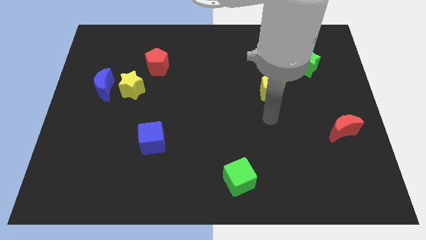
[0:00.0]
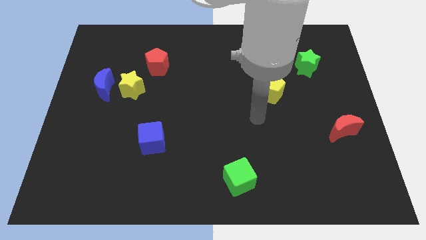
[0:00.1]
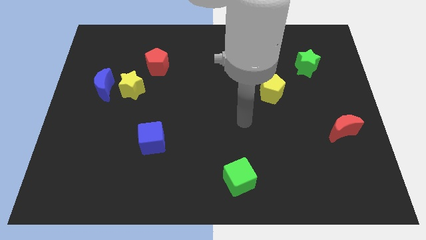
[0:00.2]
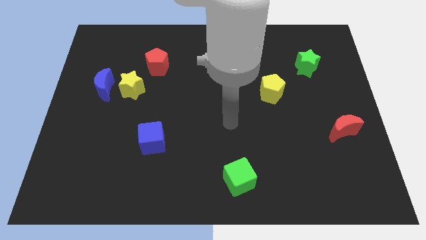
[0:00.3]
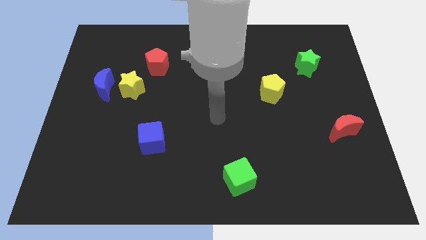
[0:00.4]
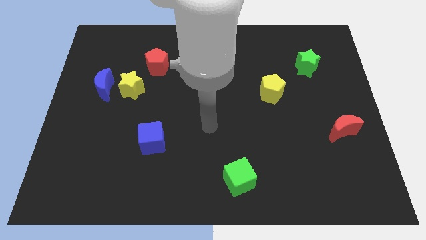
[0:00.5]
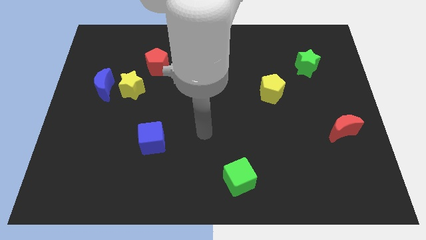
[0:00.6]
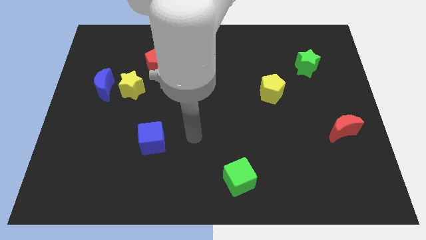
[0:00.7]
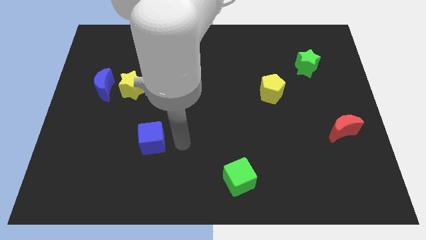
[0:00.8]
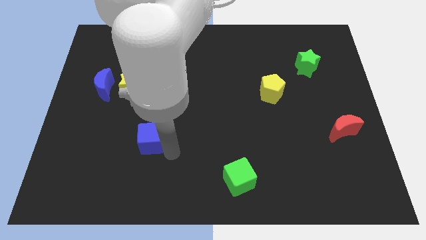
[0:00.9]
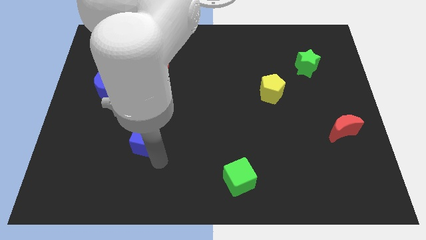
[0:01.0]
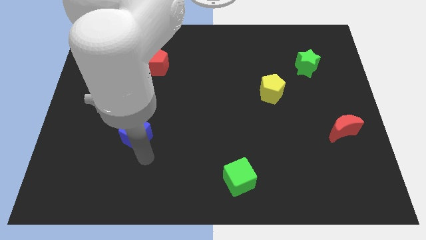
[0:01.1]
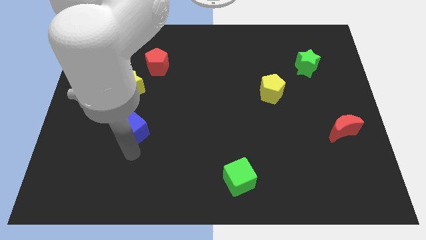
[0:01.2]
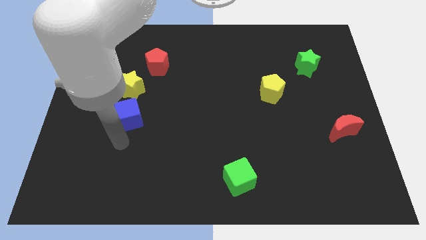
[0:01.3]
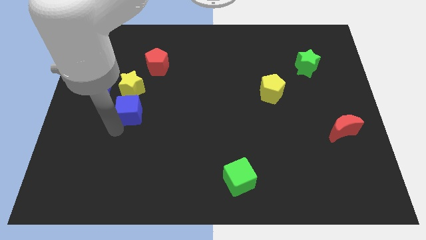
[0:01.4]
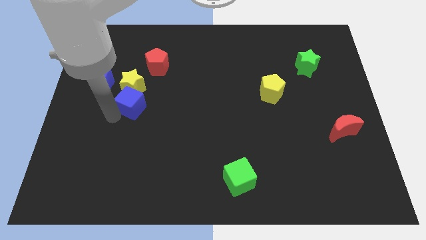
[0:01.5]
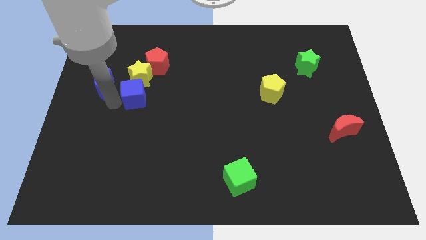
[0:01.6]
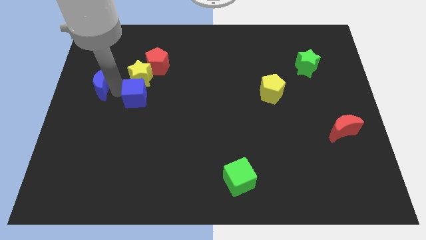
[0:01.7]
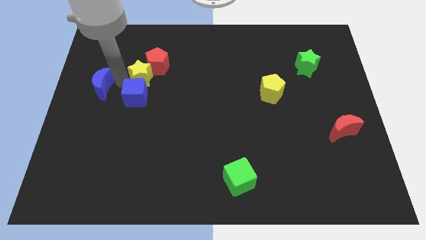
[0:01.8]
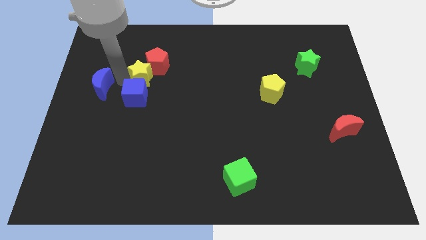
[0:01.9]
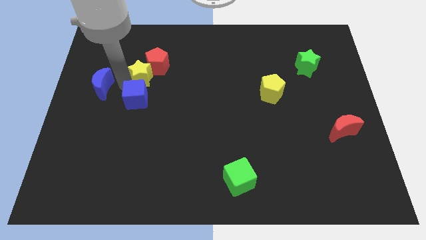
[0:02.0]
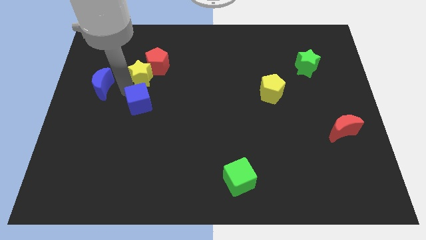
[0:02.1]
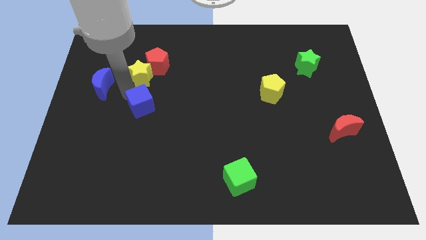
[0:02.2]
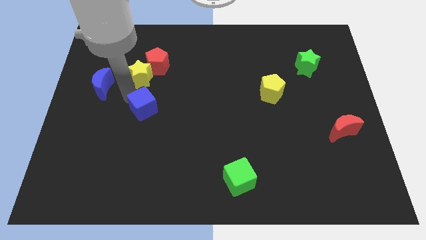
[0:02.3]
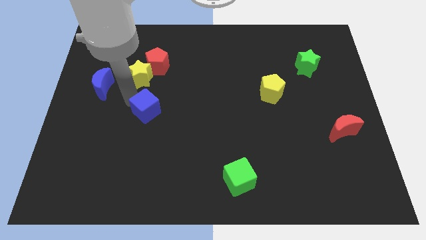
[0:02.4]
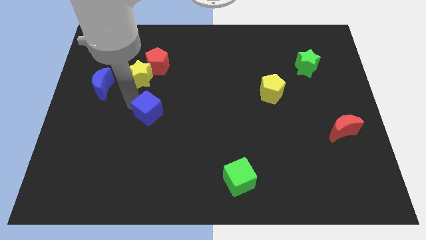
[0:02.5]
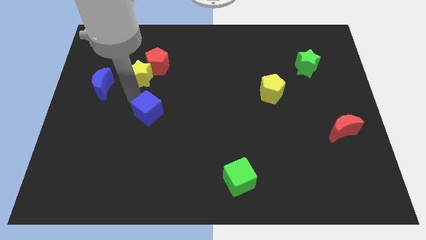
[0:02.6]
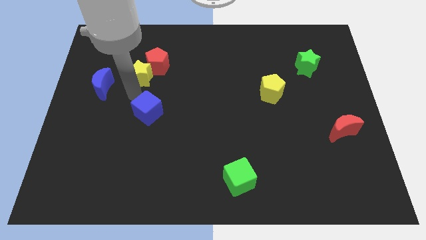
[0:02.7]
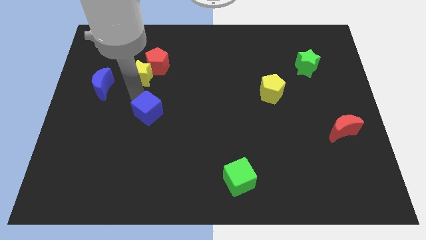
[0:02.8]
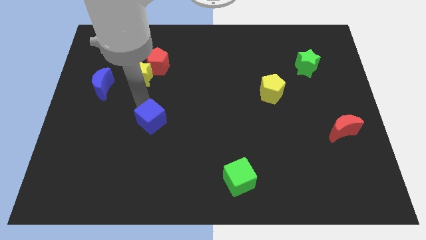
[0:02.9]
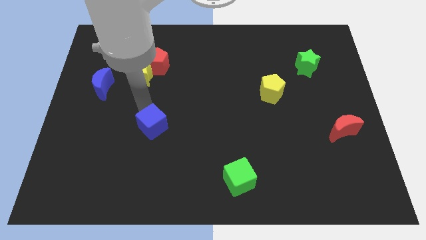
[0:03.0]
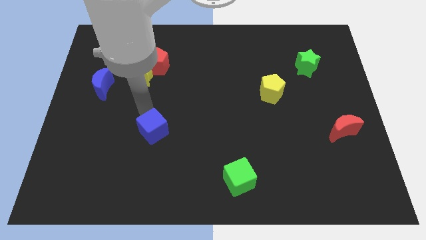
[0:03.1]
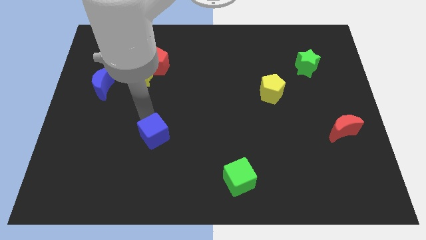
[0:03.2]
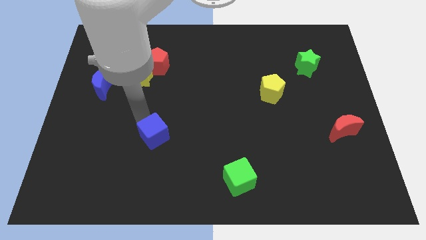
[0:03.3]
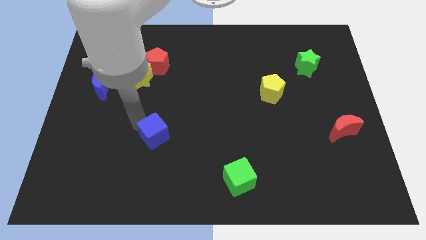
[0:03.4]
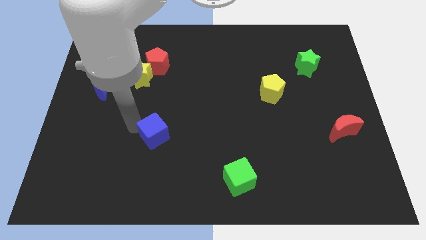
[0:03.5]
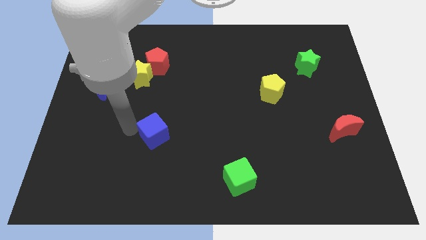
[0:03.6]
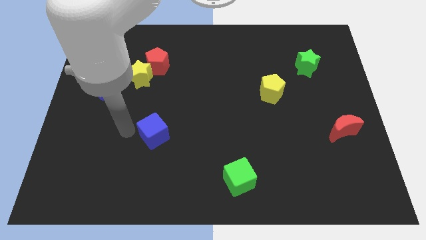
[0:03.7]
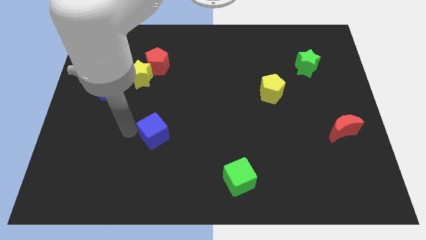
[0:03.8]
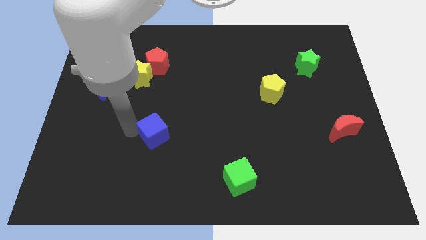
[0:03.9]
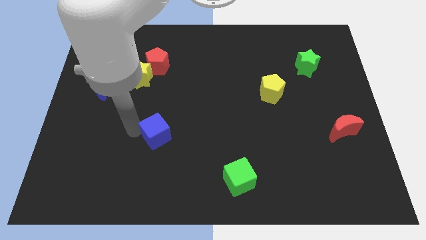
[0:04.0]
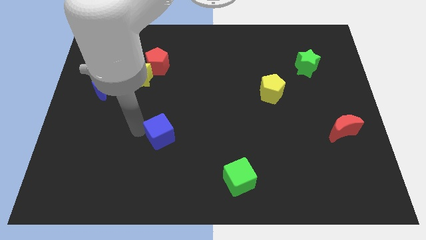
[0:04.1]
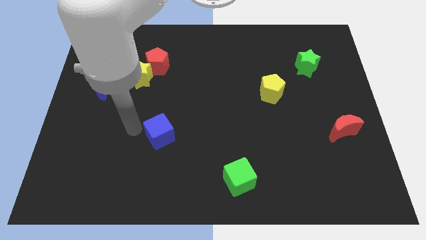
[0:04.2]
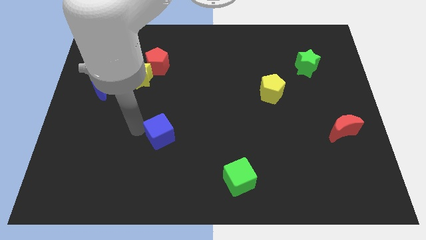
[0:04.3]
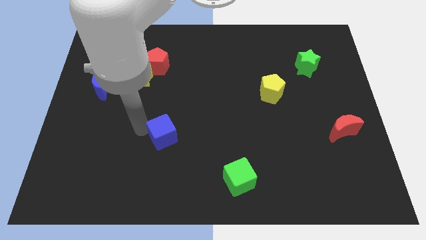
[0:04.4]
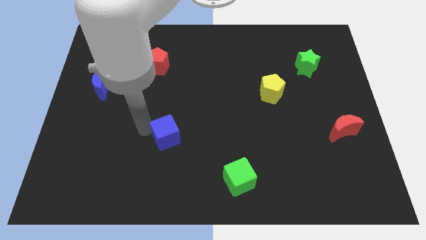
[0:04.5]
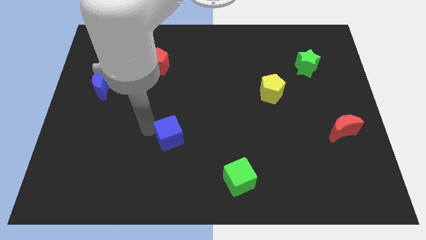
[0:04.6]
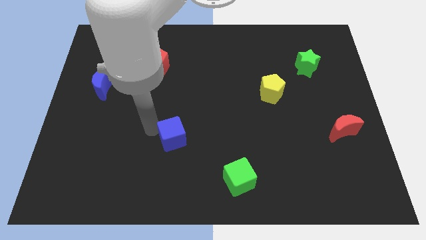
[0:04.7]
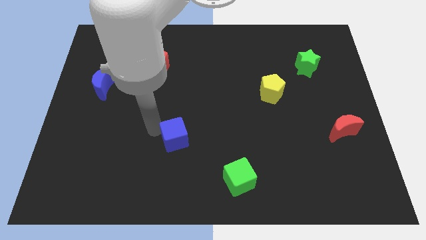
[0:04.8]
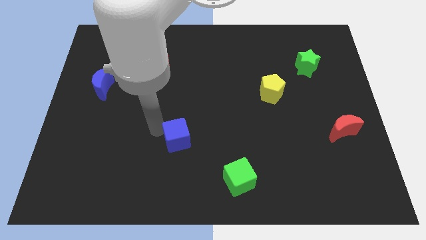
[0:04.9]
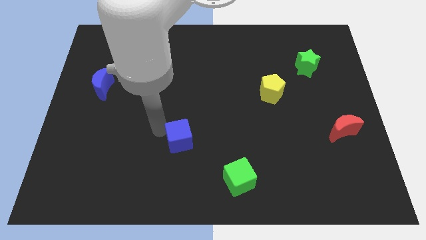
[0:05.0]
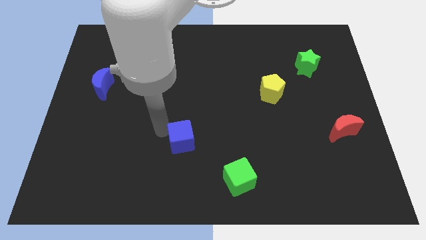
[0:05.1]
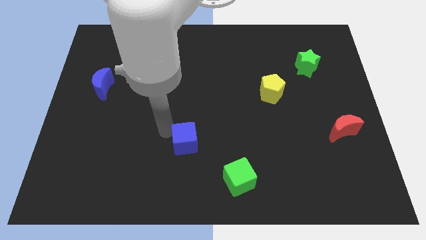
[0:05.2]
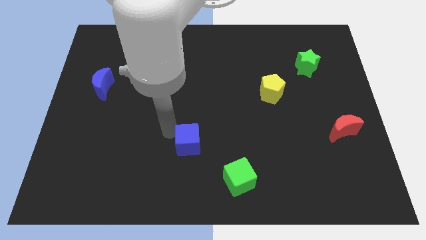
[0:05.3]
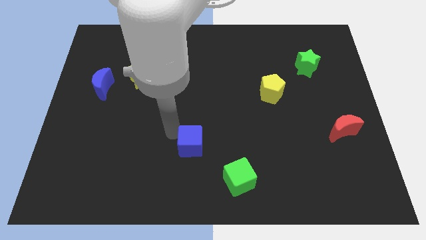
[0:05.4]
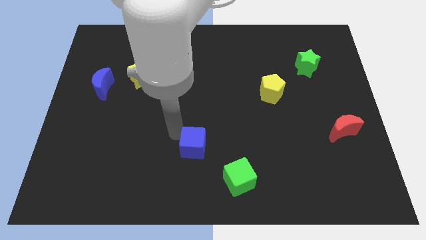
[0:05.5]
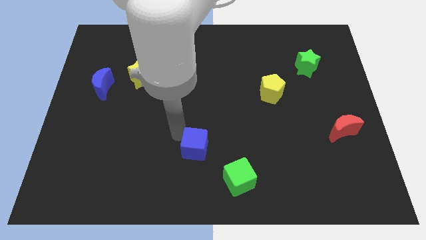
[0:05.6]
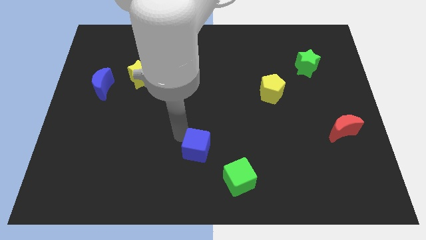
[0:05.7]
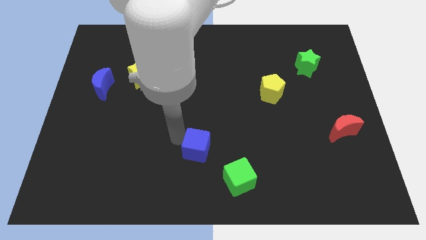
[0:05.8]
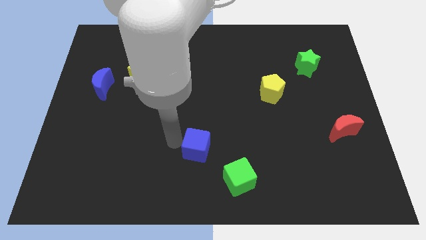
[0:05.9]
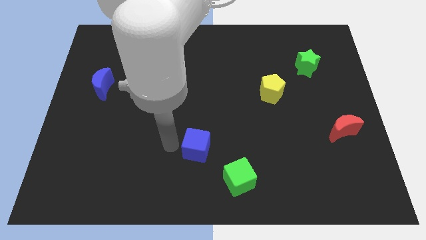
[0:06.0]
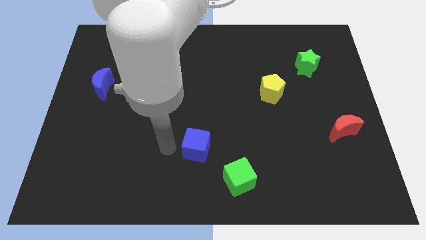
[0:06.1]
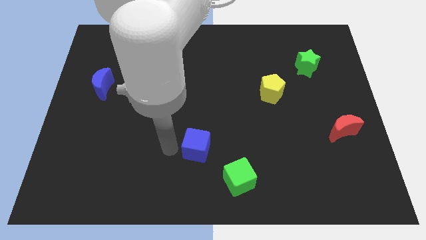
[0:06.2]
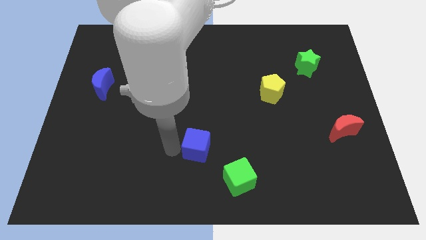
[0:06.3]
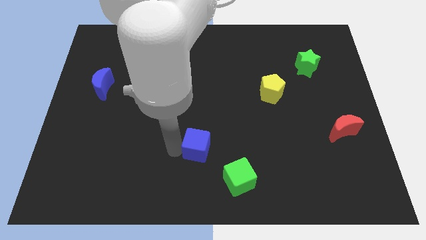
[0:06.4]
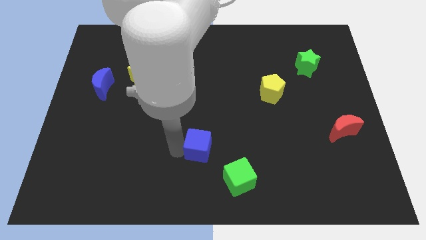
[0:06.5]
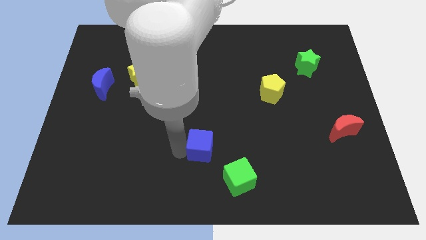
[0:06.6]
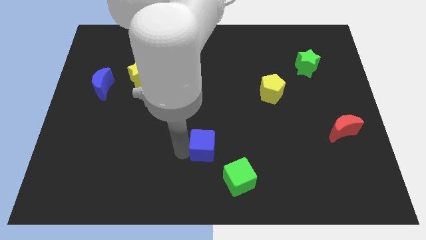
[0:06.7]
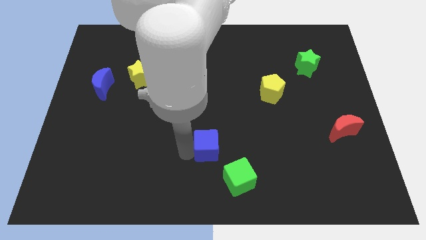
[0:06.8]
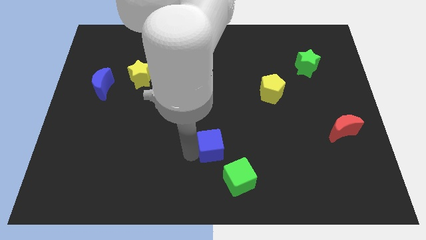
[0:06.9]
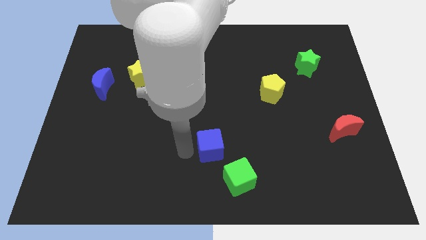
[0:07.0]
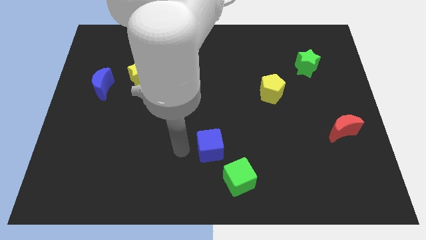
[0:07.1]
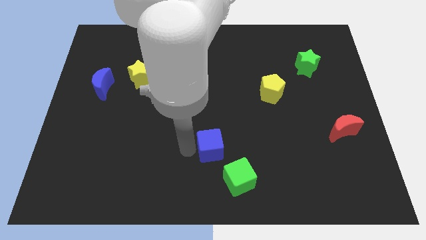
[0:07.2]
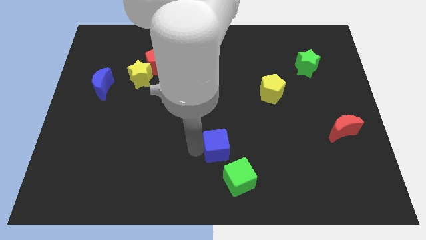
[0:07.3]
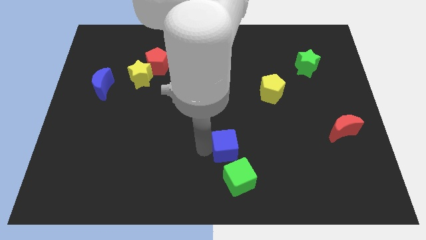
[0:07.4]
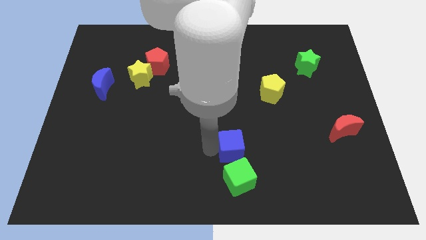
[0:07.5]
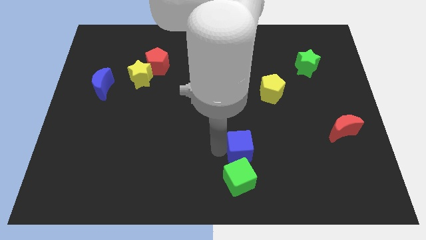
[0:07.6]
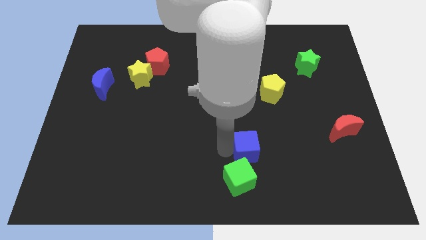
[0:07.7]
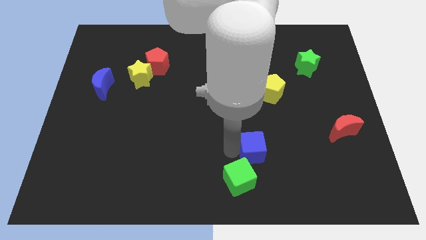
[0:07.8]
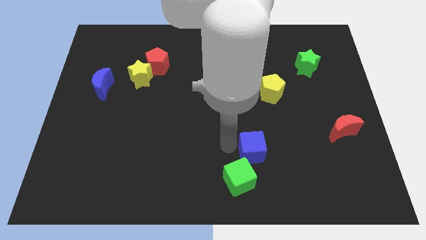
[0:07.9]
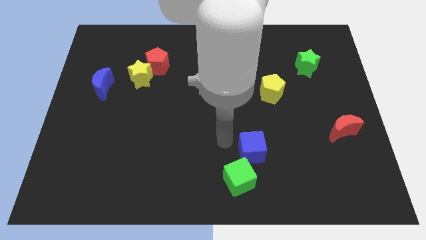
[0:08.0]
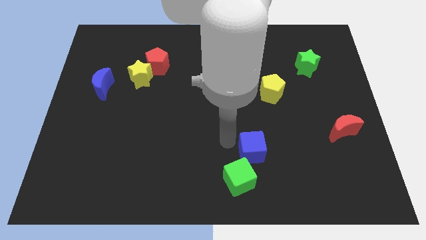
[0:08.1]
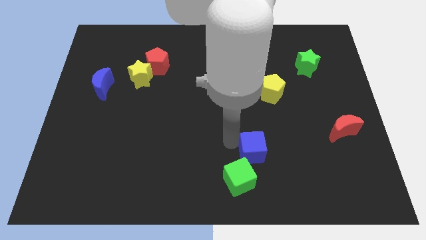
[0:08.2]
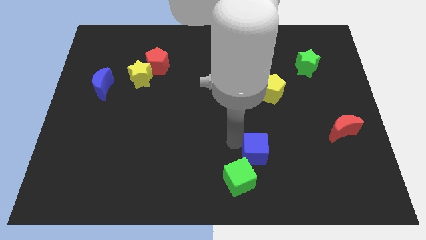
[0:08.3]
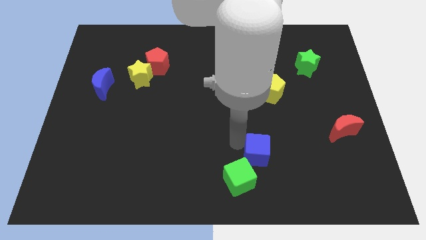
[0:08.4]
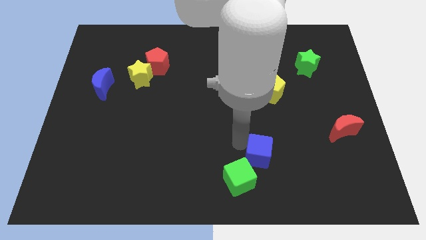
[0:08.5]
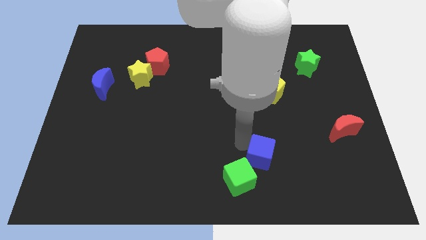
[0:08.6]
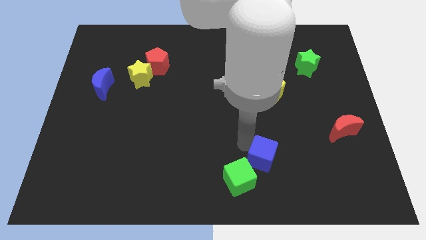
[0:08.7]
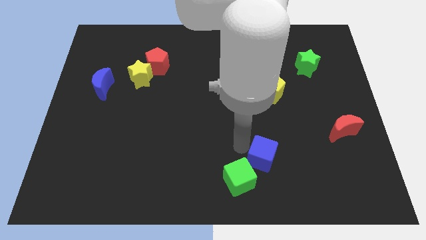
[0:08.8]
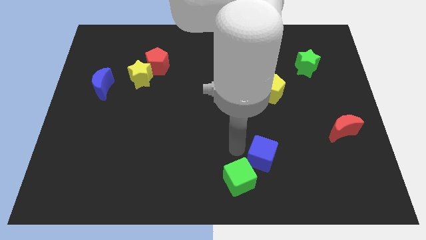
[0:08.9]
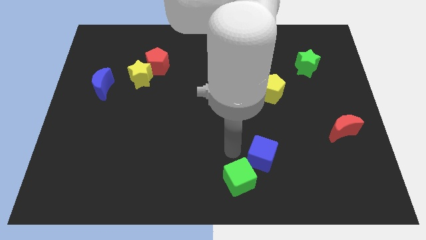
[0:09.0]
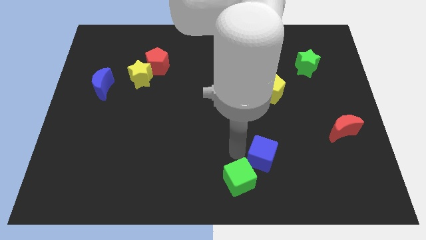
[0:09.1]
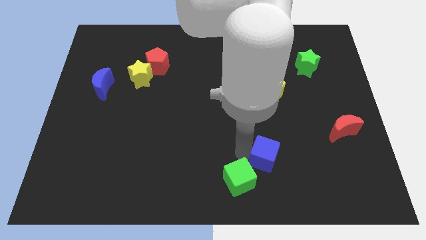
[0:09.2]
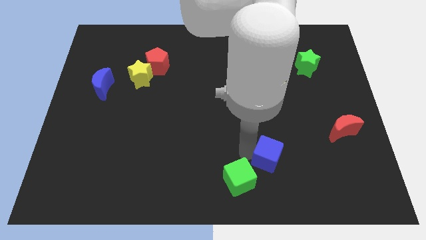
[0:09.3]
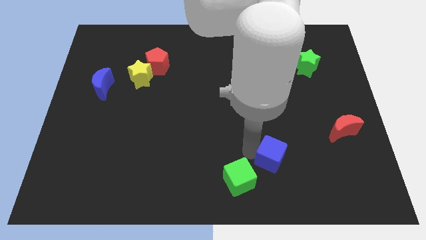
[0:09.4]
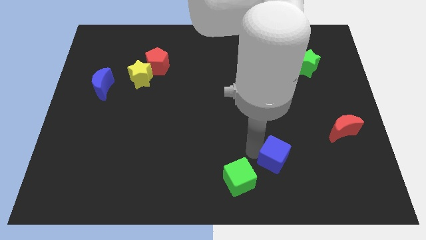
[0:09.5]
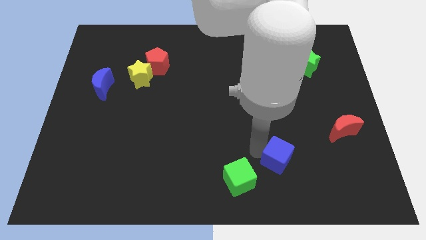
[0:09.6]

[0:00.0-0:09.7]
move the blue cube to the right side of the green cube
